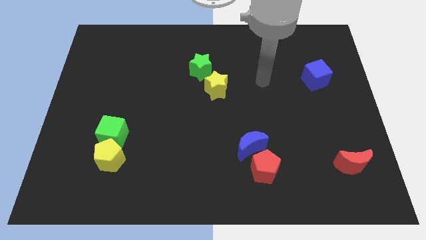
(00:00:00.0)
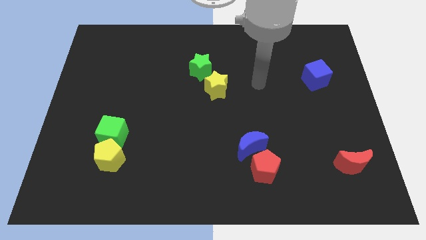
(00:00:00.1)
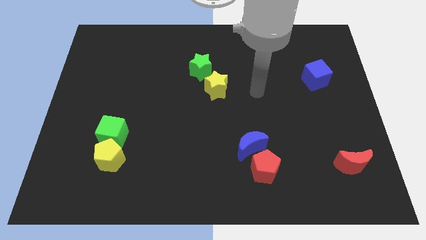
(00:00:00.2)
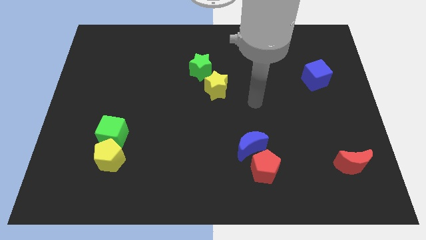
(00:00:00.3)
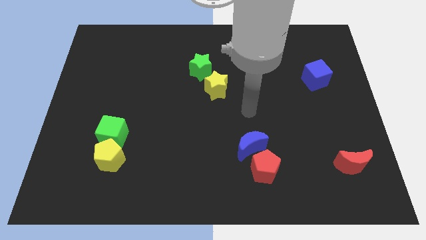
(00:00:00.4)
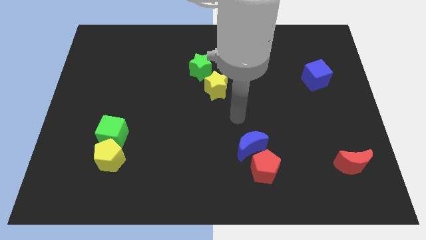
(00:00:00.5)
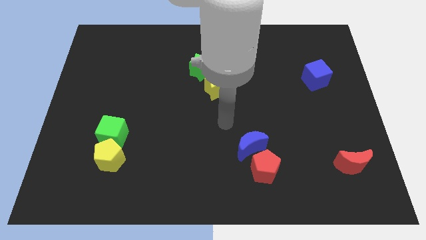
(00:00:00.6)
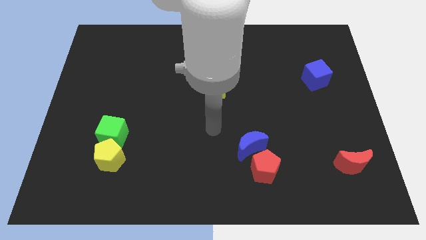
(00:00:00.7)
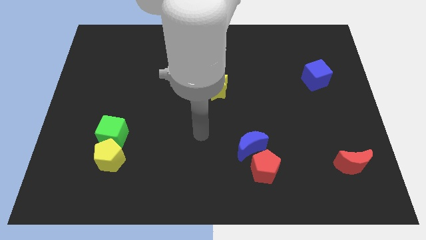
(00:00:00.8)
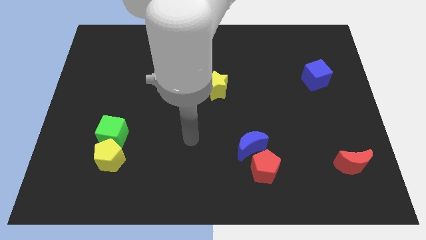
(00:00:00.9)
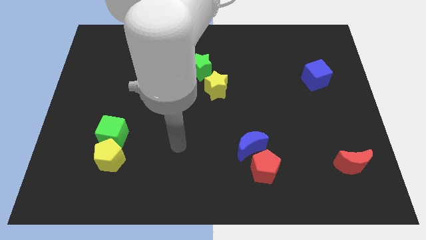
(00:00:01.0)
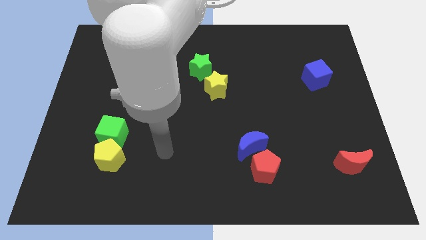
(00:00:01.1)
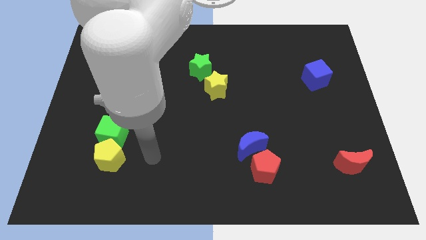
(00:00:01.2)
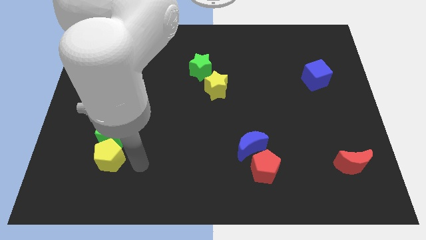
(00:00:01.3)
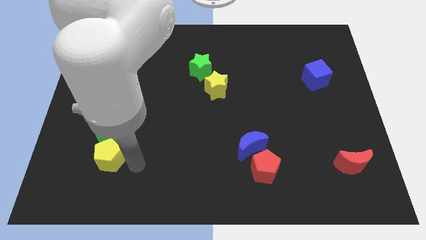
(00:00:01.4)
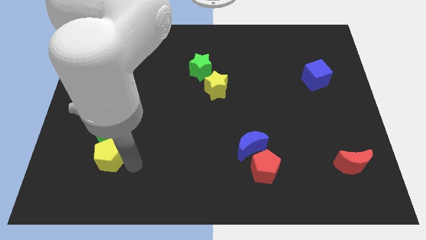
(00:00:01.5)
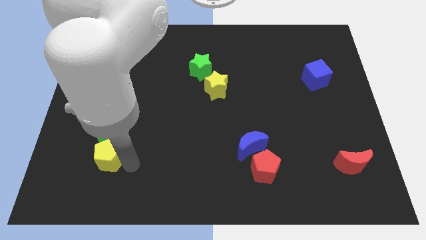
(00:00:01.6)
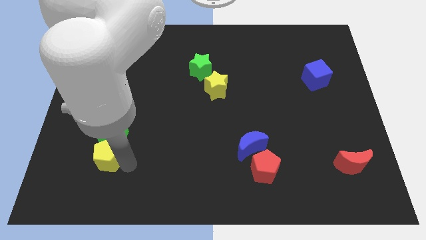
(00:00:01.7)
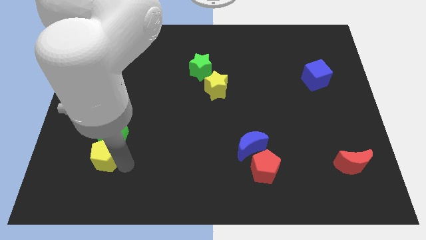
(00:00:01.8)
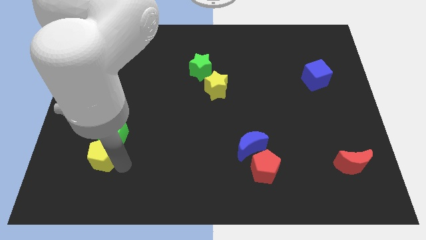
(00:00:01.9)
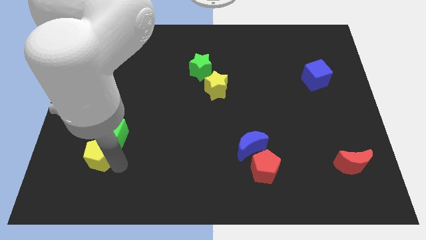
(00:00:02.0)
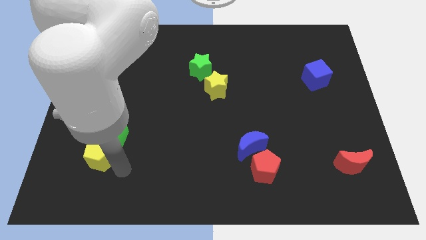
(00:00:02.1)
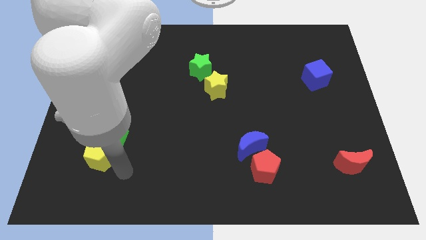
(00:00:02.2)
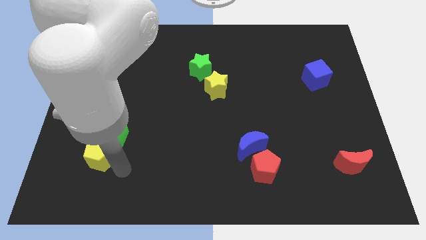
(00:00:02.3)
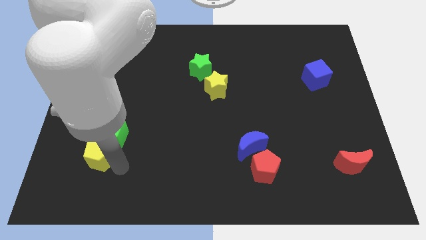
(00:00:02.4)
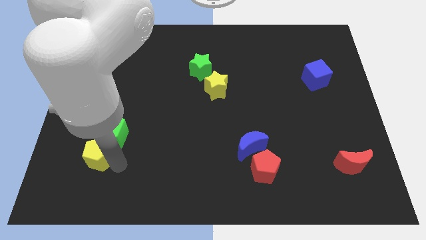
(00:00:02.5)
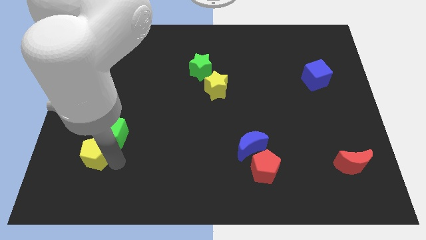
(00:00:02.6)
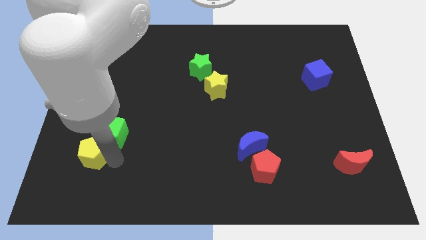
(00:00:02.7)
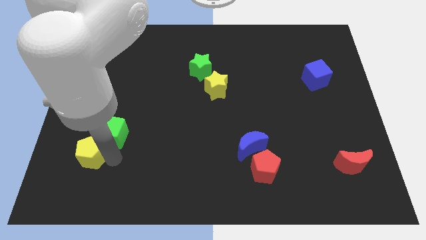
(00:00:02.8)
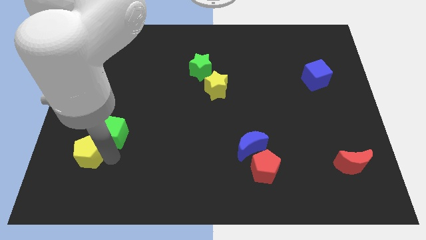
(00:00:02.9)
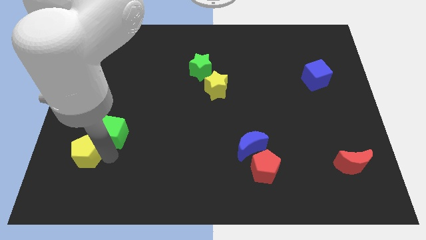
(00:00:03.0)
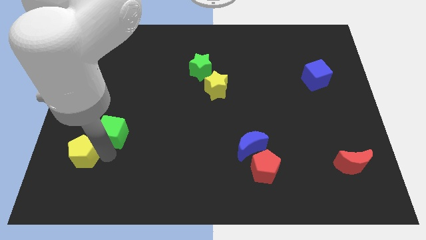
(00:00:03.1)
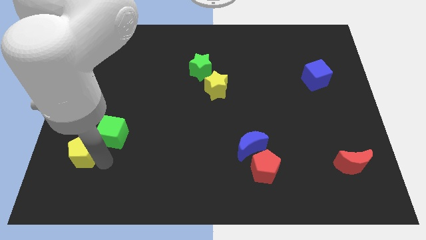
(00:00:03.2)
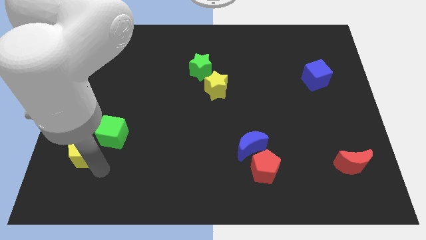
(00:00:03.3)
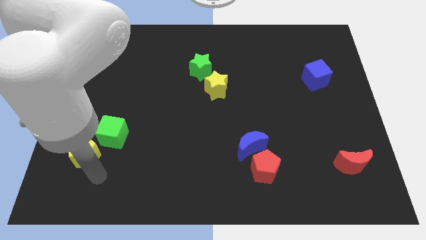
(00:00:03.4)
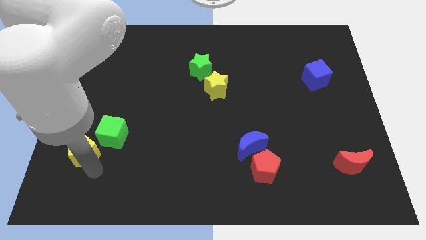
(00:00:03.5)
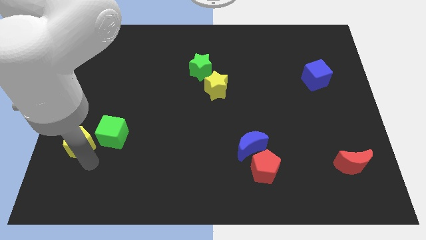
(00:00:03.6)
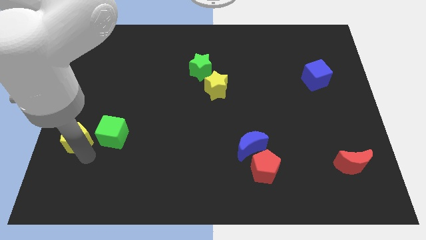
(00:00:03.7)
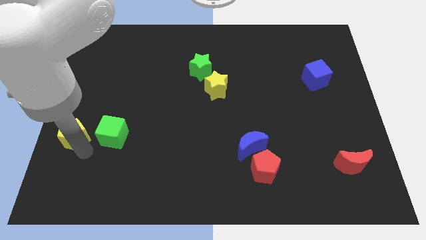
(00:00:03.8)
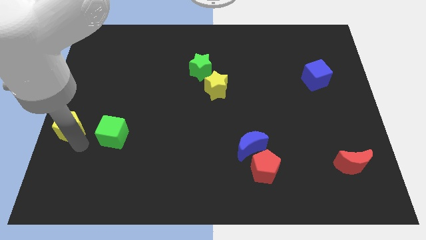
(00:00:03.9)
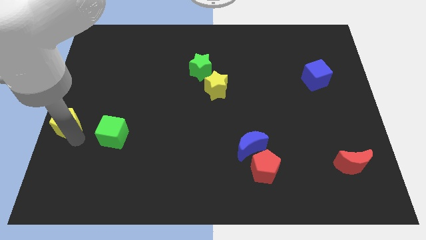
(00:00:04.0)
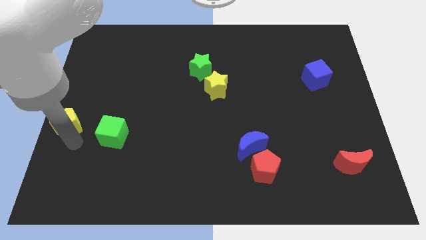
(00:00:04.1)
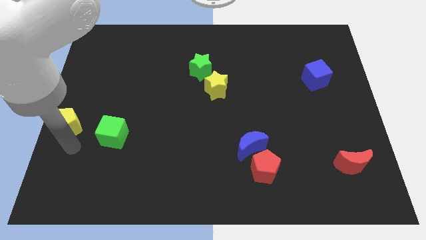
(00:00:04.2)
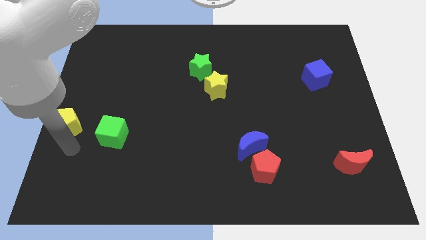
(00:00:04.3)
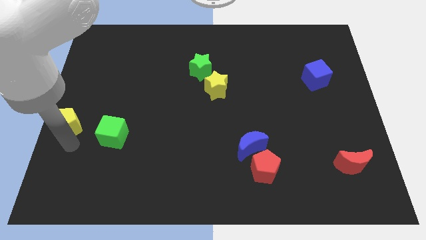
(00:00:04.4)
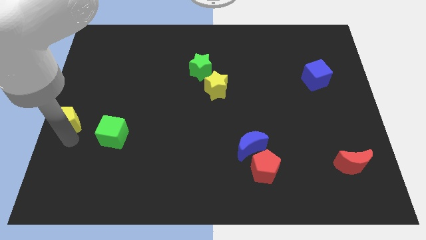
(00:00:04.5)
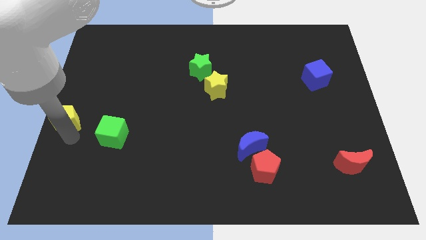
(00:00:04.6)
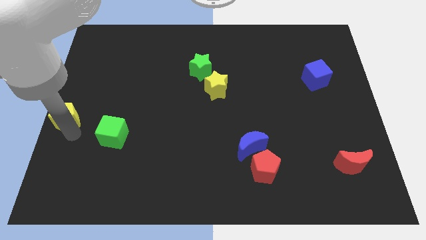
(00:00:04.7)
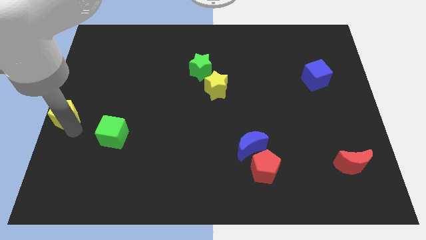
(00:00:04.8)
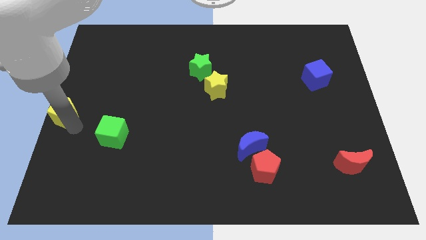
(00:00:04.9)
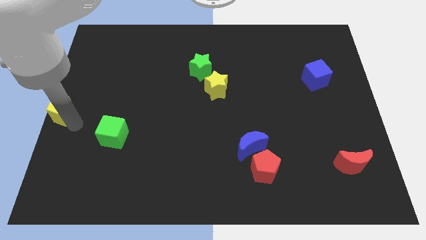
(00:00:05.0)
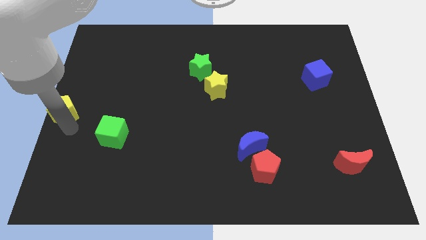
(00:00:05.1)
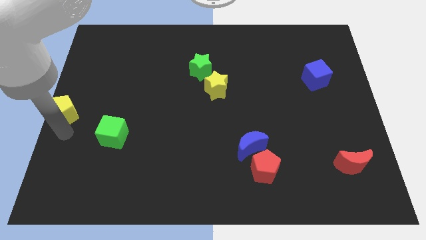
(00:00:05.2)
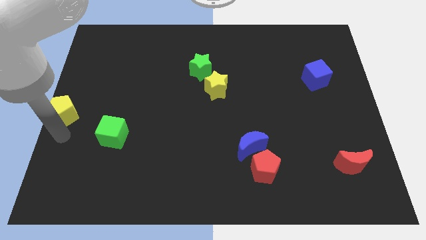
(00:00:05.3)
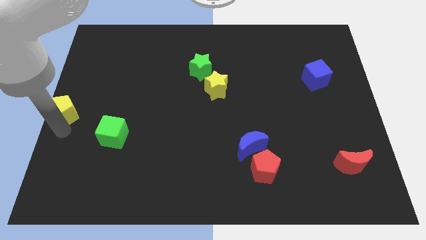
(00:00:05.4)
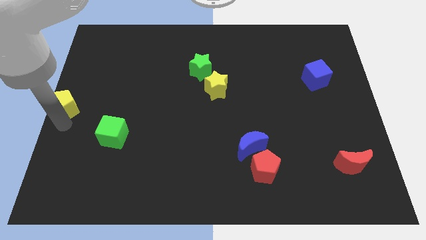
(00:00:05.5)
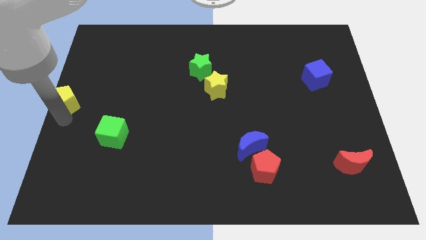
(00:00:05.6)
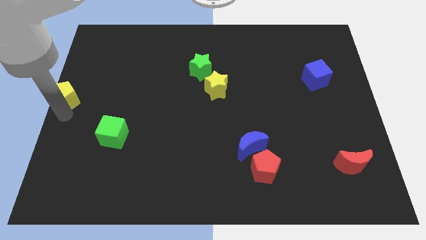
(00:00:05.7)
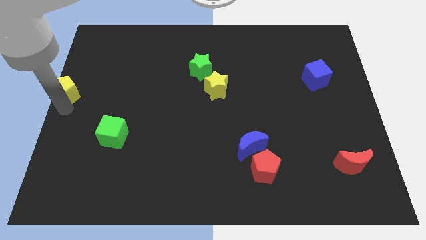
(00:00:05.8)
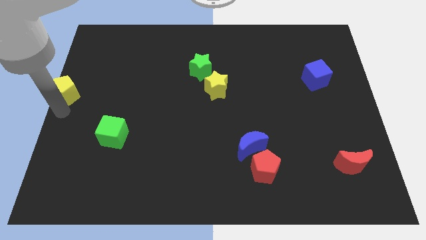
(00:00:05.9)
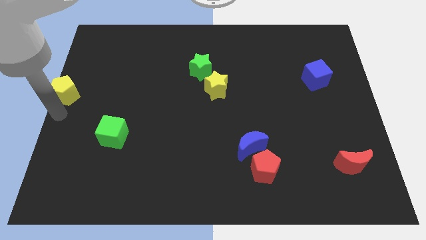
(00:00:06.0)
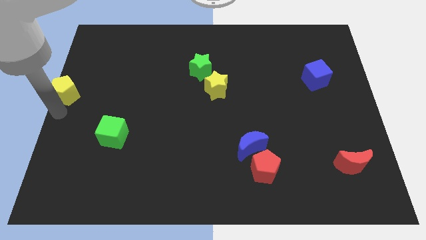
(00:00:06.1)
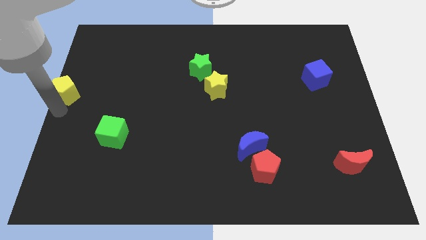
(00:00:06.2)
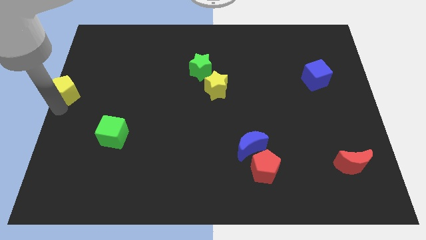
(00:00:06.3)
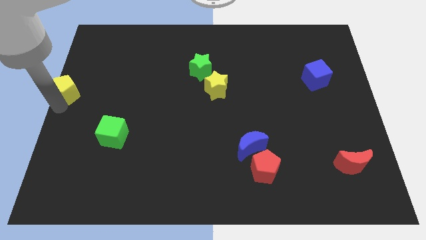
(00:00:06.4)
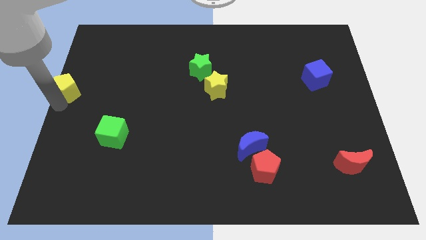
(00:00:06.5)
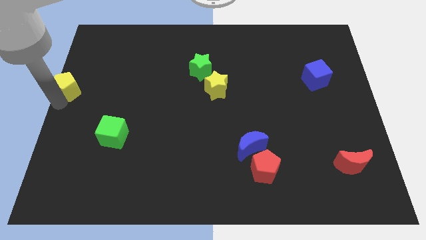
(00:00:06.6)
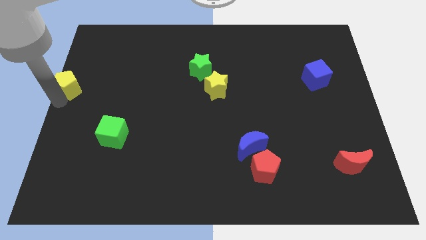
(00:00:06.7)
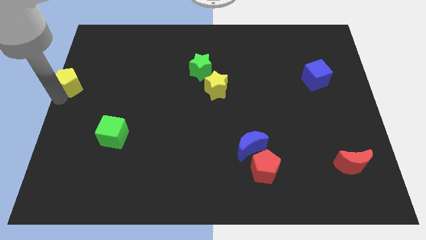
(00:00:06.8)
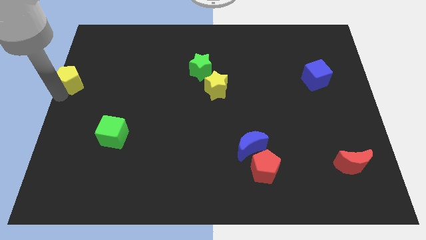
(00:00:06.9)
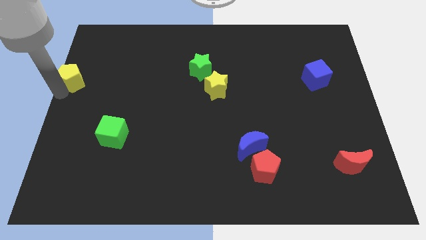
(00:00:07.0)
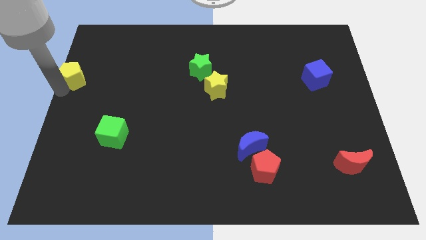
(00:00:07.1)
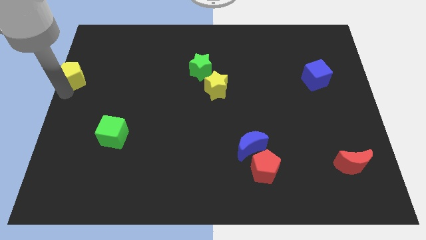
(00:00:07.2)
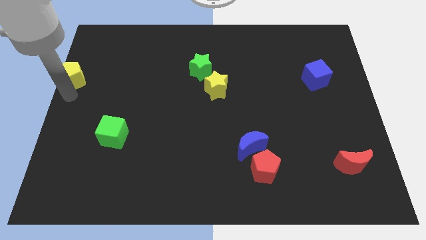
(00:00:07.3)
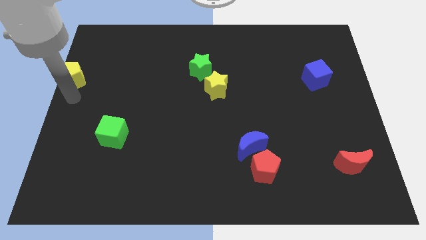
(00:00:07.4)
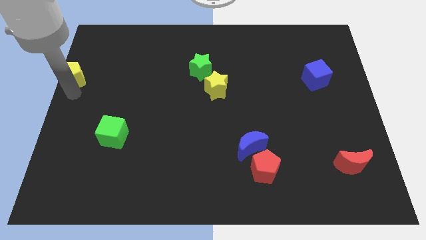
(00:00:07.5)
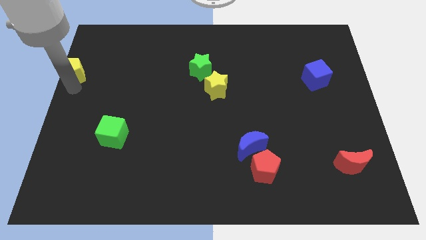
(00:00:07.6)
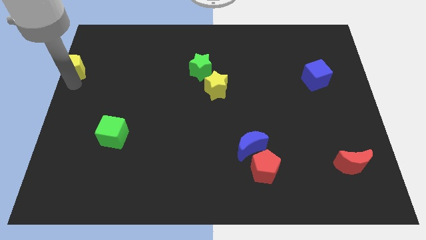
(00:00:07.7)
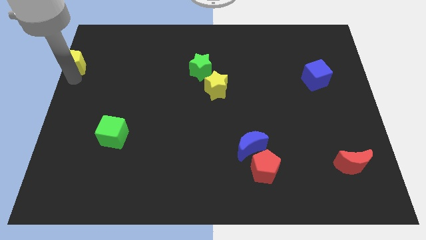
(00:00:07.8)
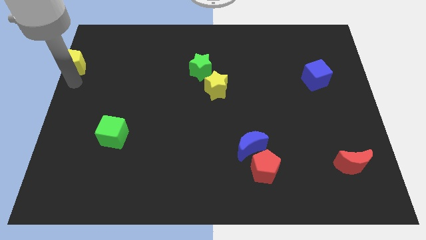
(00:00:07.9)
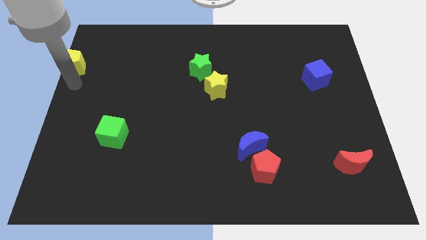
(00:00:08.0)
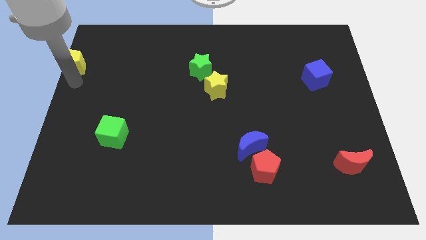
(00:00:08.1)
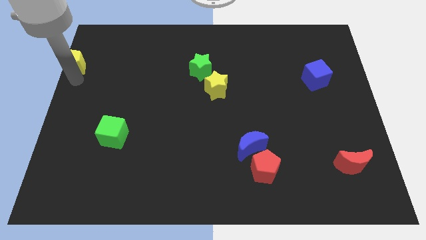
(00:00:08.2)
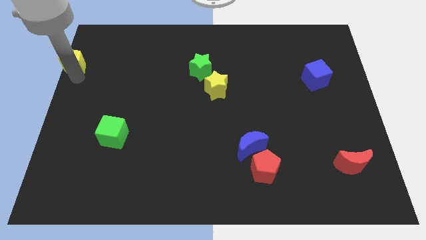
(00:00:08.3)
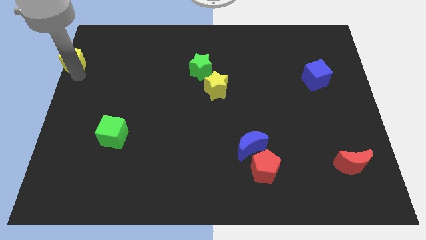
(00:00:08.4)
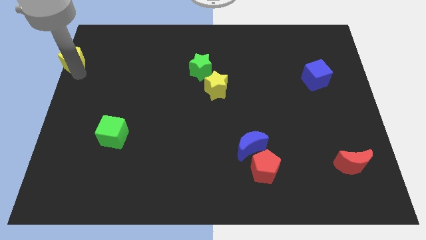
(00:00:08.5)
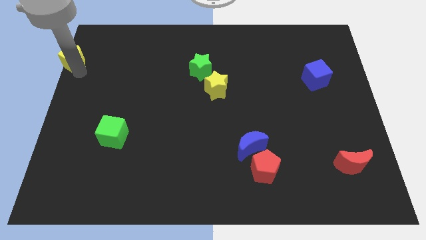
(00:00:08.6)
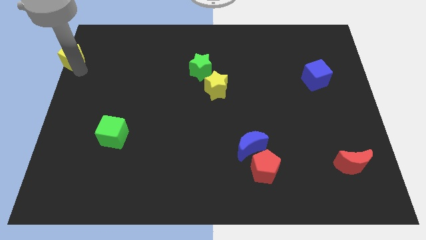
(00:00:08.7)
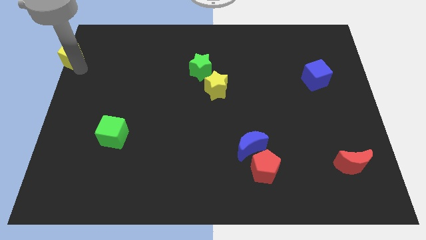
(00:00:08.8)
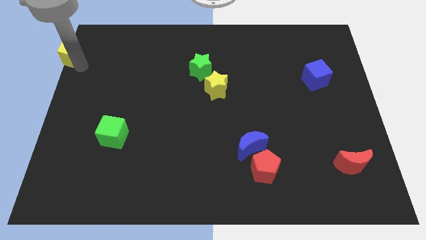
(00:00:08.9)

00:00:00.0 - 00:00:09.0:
move the yellow pentagon to the upper left corner
